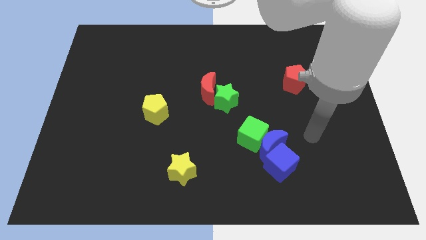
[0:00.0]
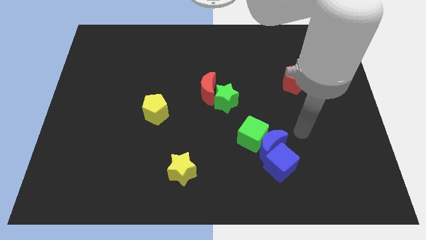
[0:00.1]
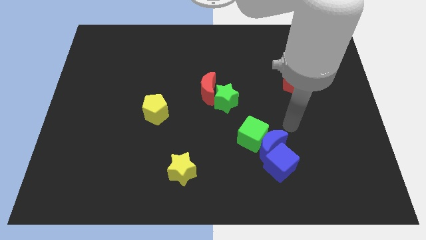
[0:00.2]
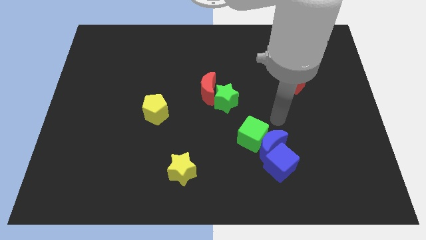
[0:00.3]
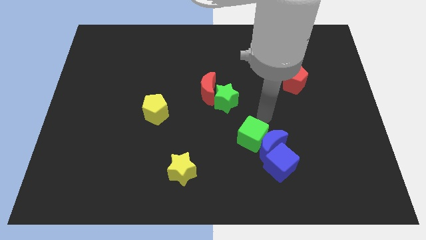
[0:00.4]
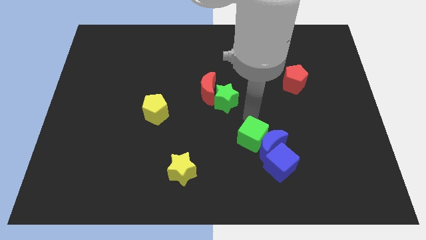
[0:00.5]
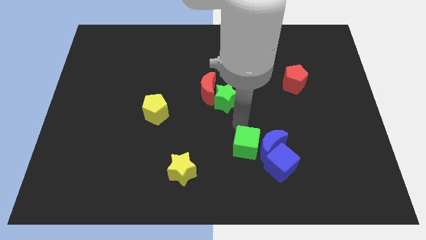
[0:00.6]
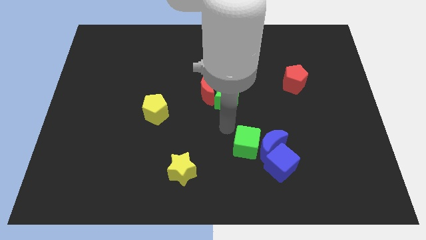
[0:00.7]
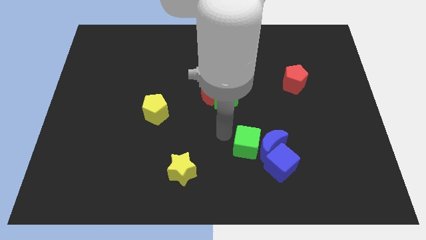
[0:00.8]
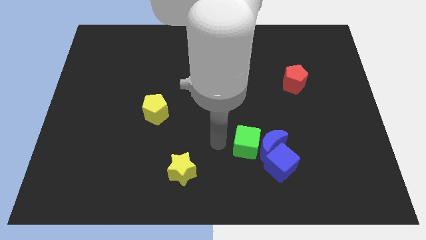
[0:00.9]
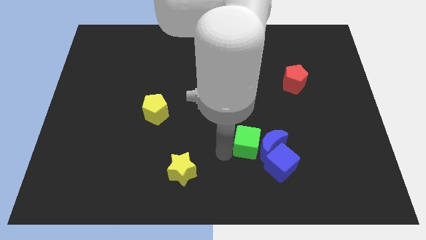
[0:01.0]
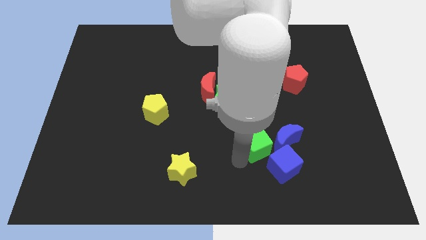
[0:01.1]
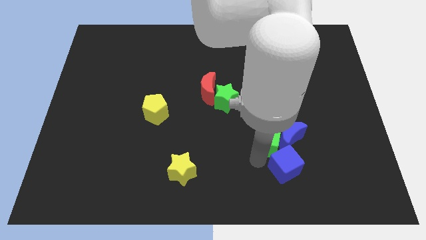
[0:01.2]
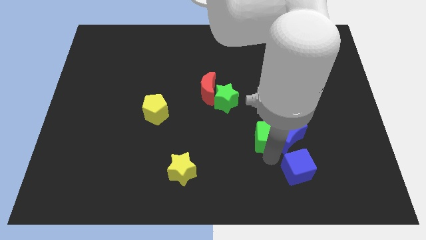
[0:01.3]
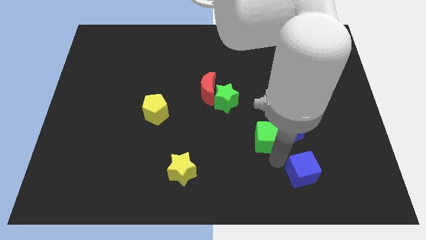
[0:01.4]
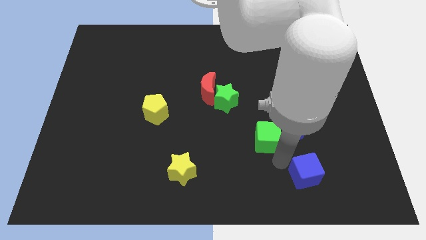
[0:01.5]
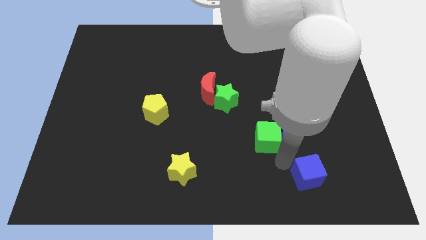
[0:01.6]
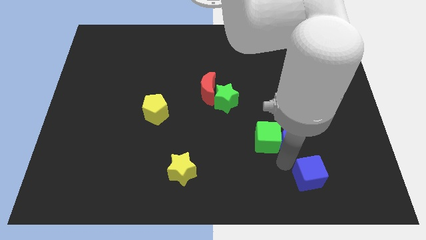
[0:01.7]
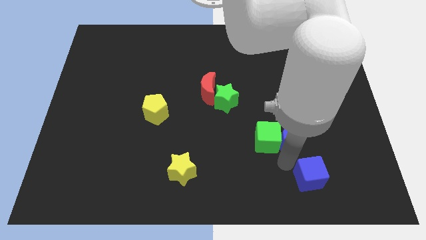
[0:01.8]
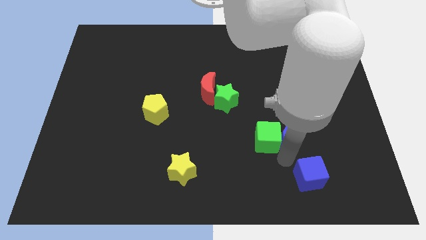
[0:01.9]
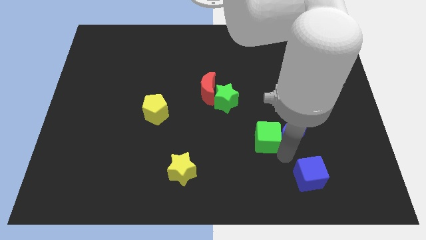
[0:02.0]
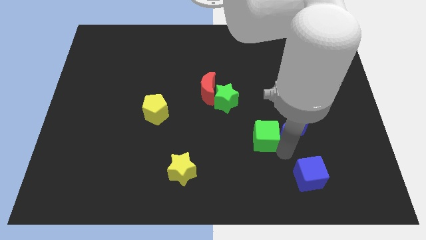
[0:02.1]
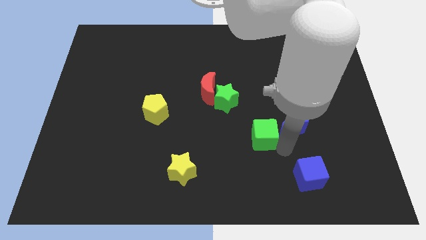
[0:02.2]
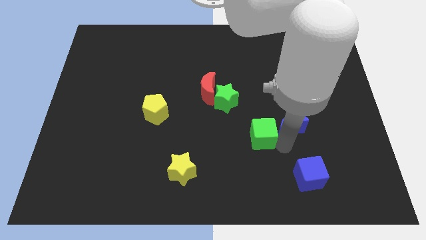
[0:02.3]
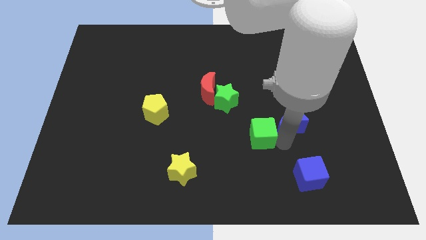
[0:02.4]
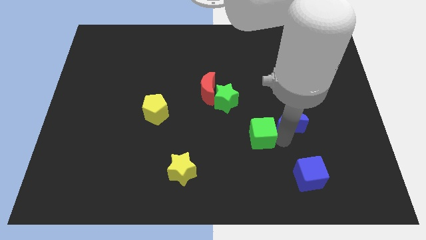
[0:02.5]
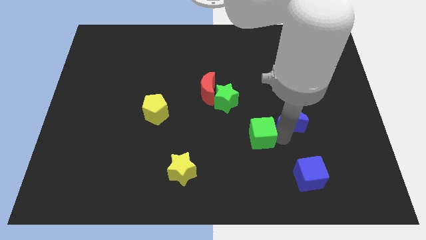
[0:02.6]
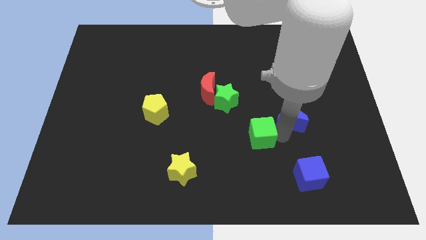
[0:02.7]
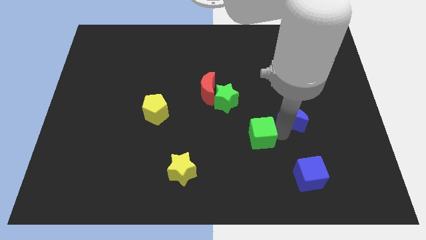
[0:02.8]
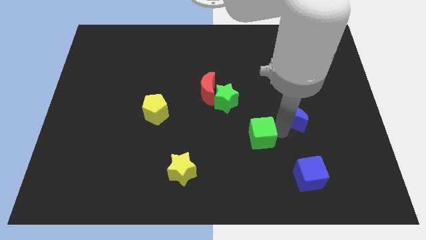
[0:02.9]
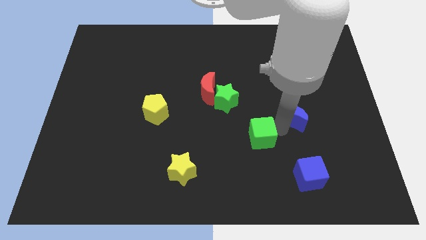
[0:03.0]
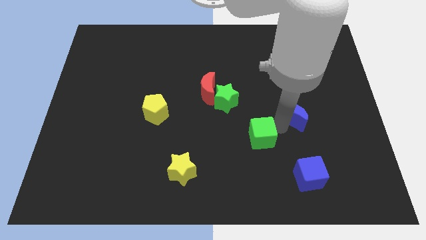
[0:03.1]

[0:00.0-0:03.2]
separate the blue moon from the green cube and blue cube

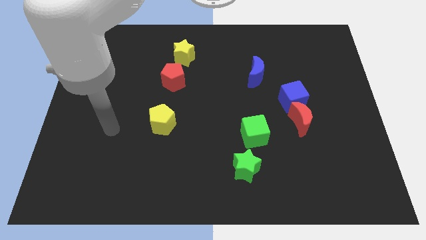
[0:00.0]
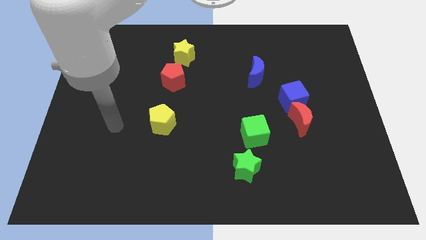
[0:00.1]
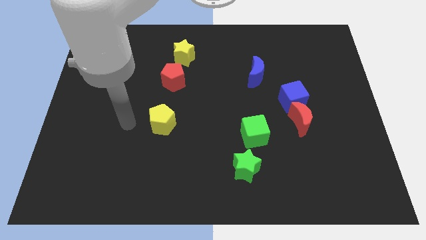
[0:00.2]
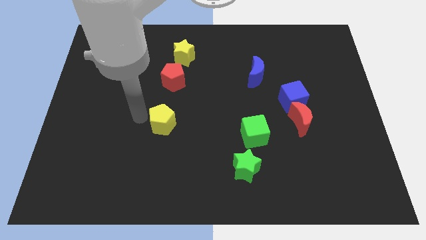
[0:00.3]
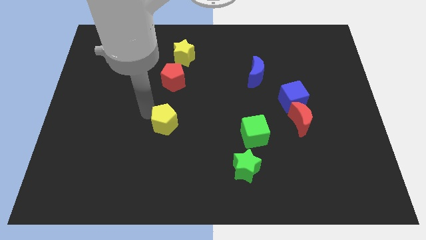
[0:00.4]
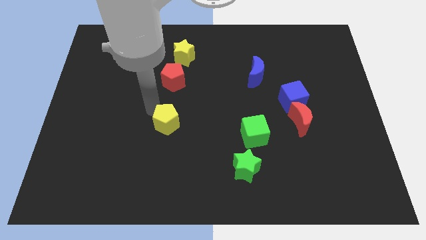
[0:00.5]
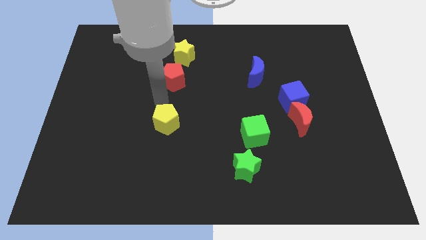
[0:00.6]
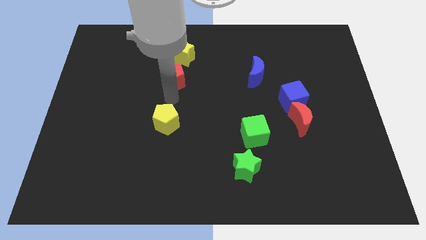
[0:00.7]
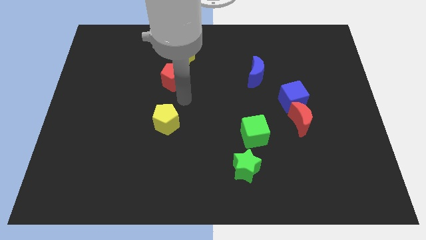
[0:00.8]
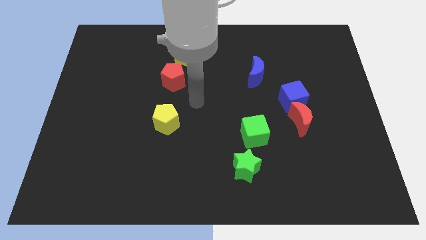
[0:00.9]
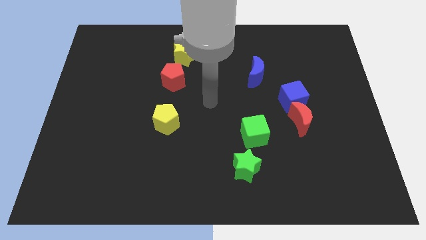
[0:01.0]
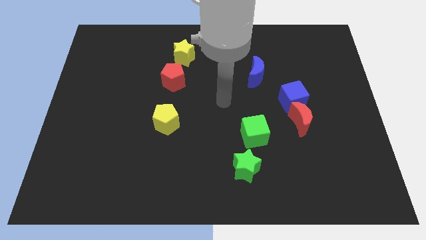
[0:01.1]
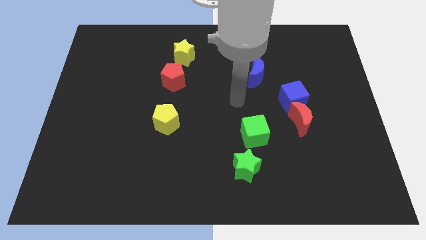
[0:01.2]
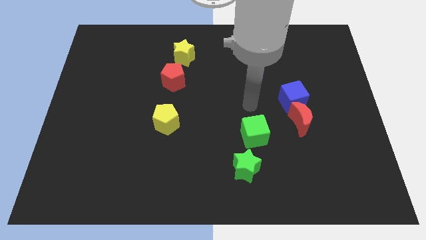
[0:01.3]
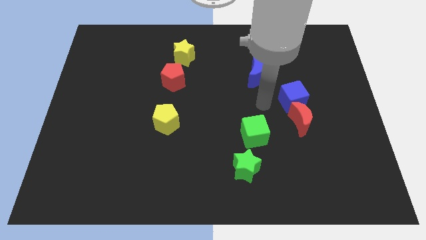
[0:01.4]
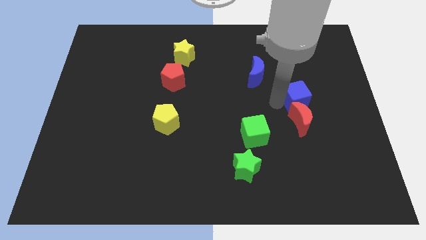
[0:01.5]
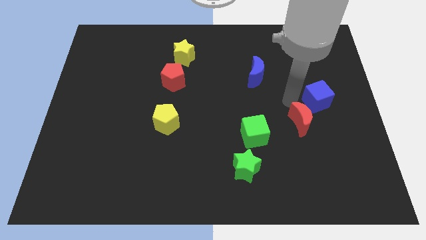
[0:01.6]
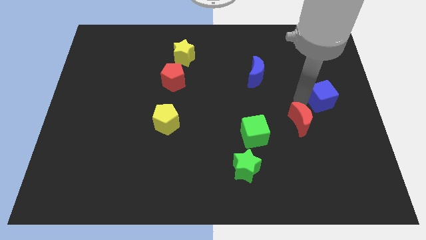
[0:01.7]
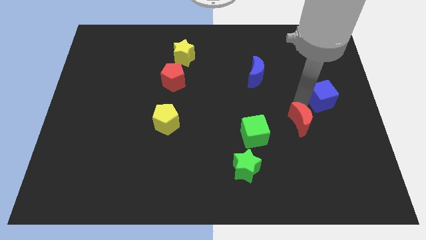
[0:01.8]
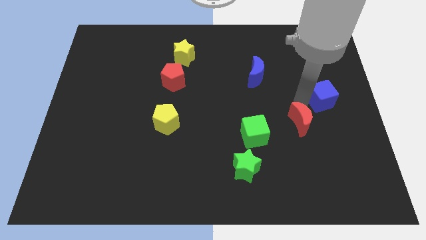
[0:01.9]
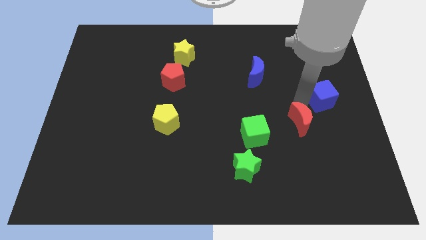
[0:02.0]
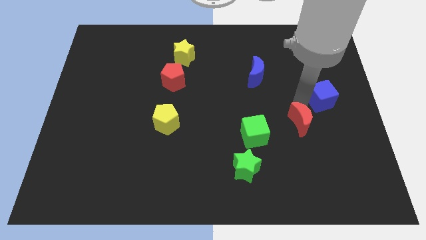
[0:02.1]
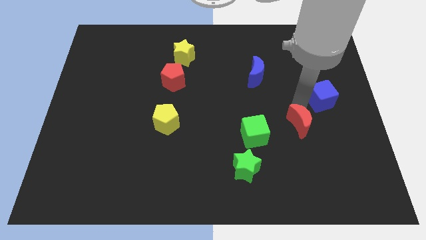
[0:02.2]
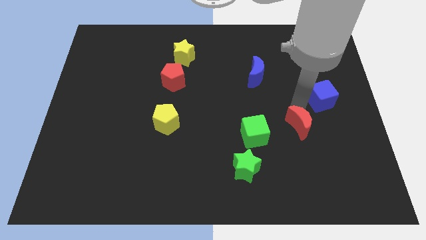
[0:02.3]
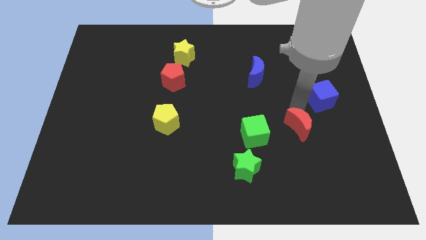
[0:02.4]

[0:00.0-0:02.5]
pull the red moon apart from the blue cube

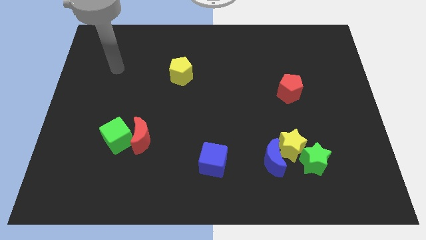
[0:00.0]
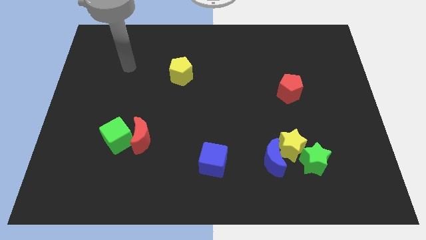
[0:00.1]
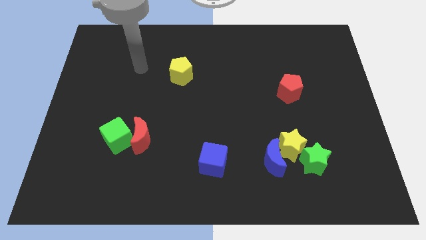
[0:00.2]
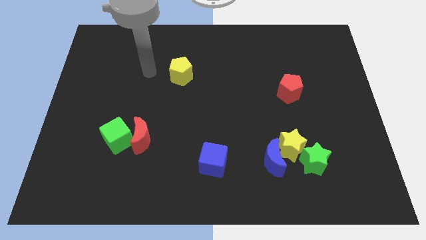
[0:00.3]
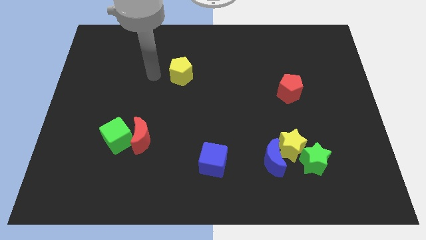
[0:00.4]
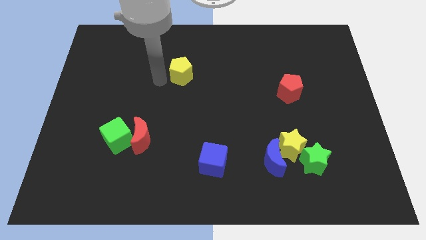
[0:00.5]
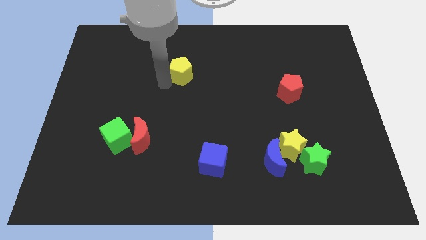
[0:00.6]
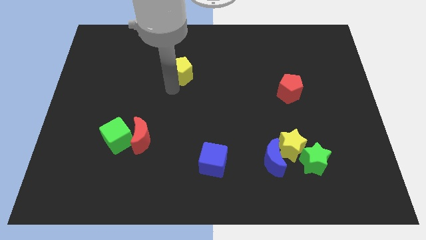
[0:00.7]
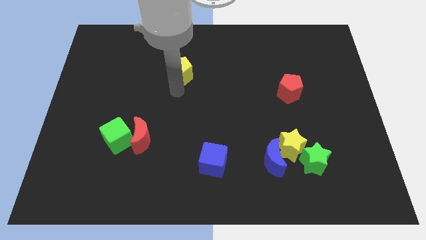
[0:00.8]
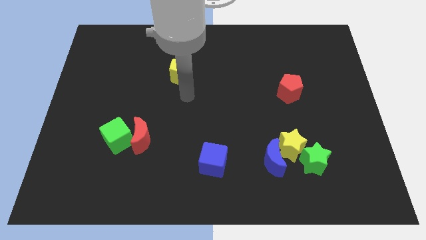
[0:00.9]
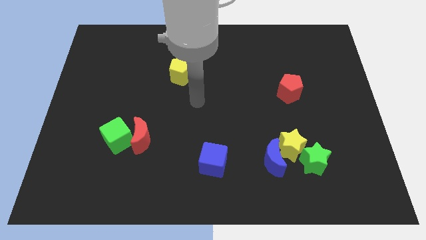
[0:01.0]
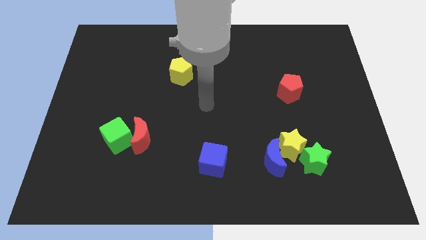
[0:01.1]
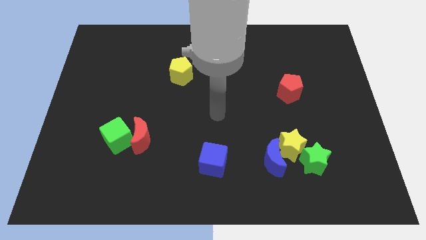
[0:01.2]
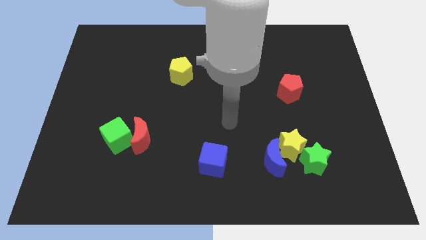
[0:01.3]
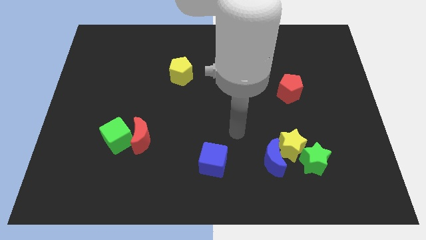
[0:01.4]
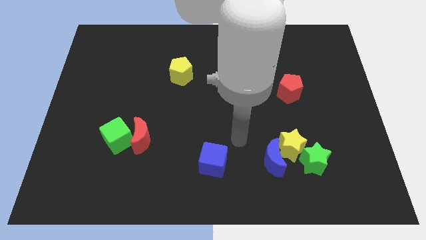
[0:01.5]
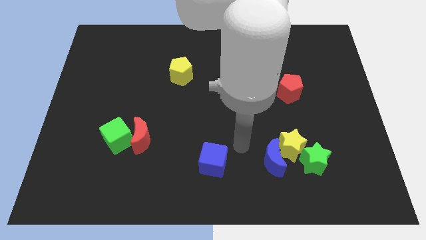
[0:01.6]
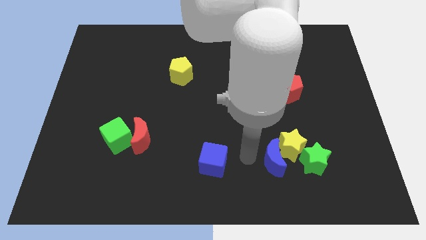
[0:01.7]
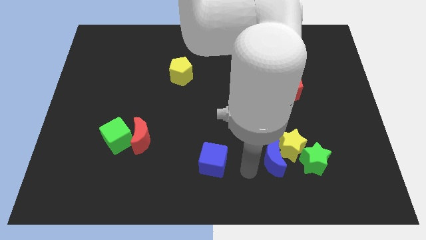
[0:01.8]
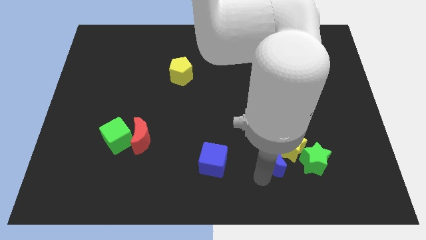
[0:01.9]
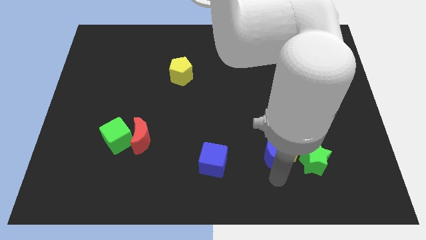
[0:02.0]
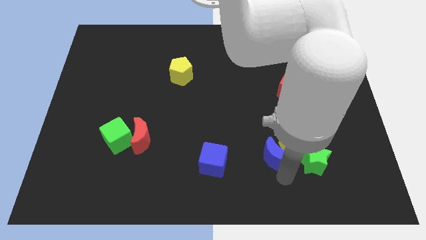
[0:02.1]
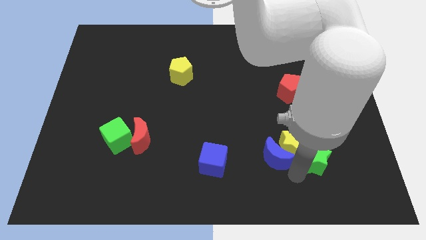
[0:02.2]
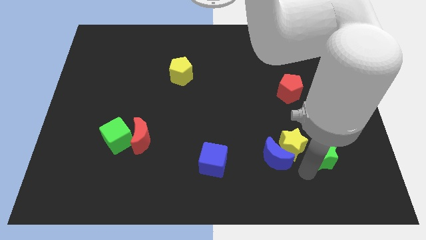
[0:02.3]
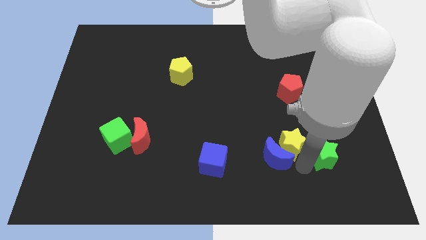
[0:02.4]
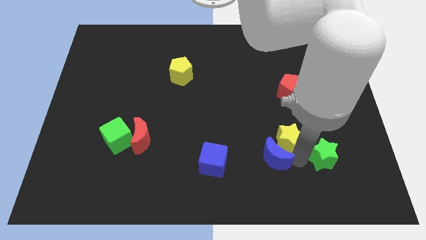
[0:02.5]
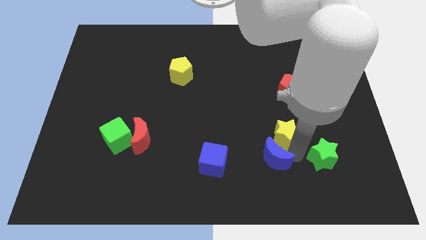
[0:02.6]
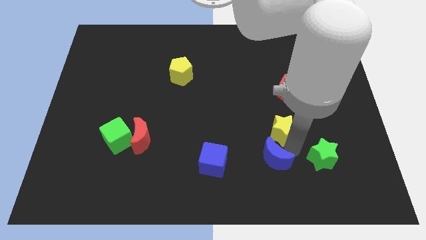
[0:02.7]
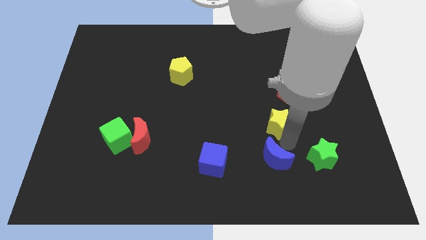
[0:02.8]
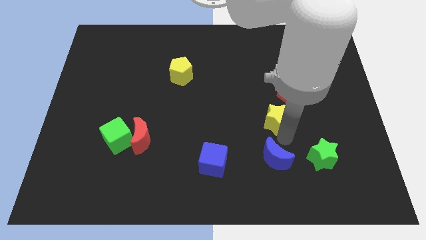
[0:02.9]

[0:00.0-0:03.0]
pull the yellow star apart from the blue moon and green star

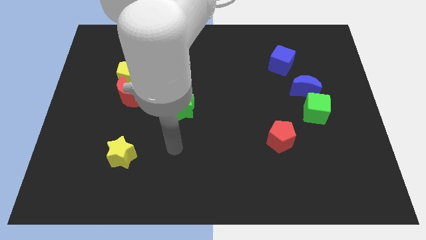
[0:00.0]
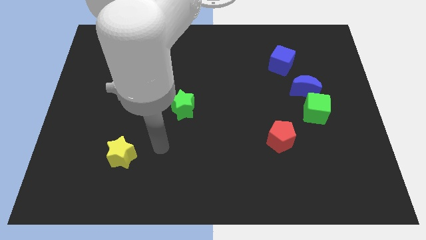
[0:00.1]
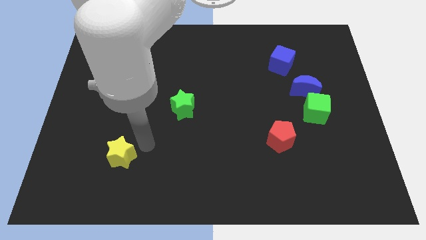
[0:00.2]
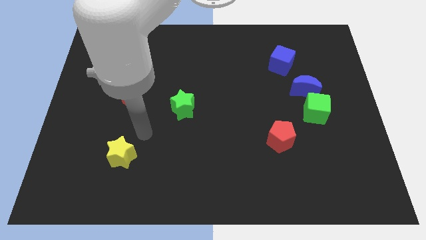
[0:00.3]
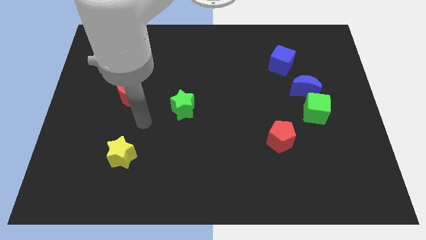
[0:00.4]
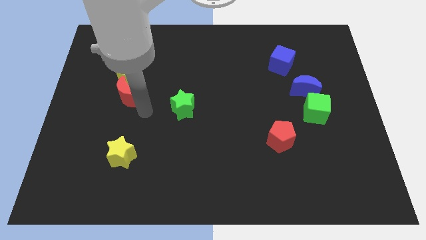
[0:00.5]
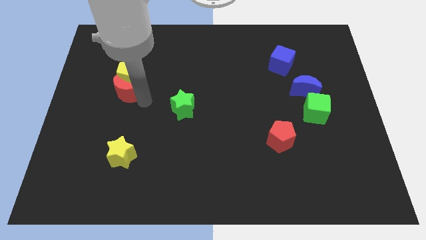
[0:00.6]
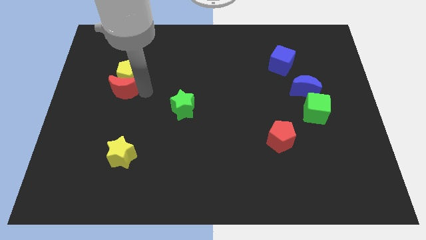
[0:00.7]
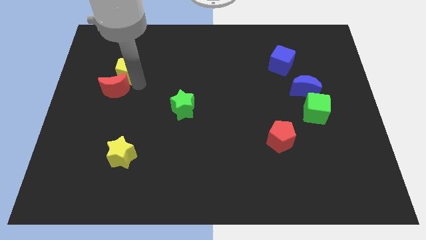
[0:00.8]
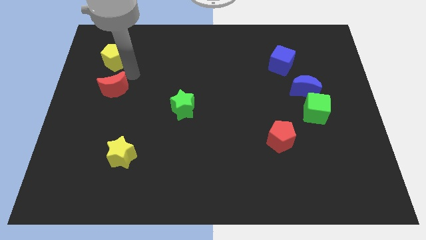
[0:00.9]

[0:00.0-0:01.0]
pull the red moon apart from the yellow pentagon
